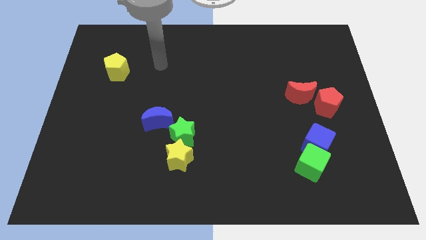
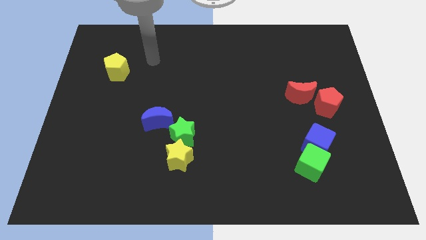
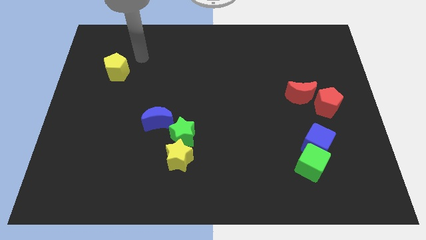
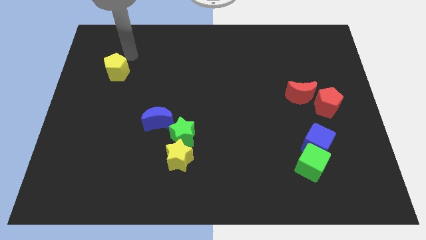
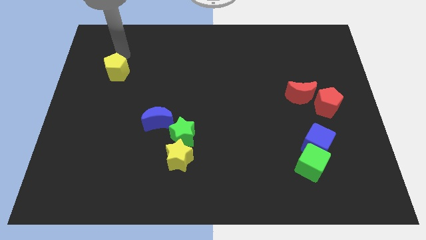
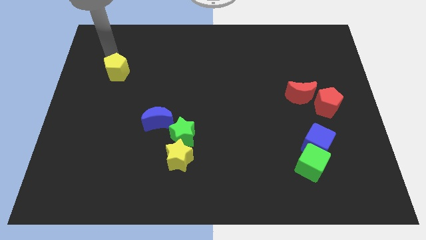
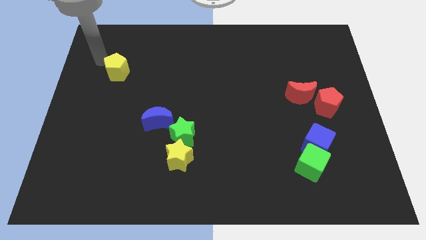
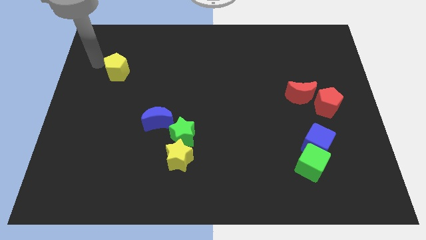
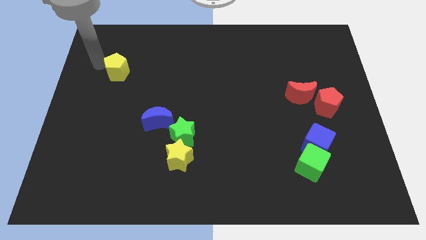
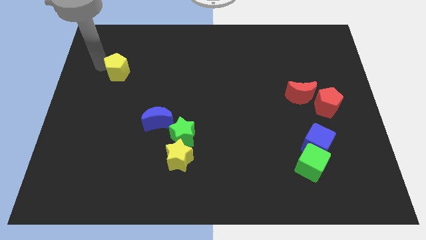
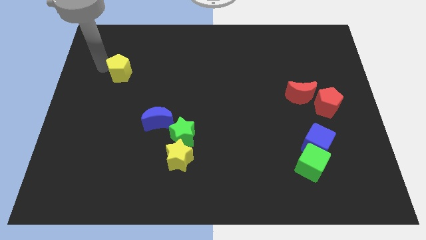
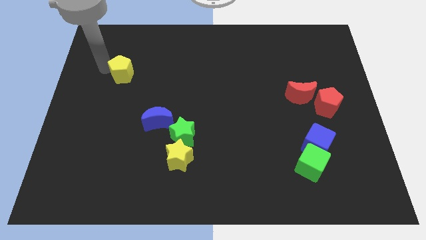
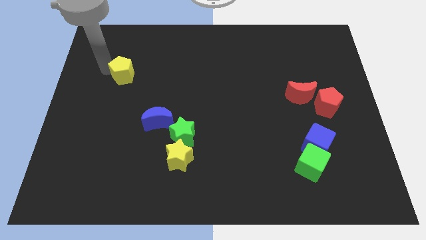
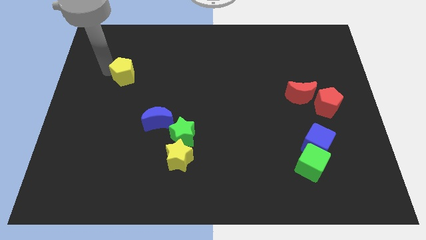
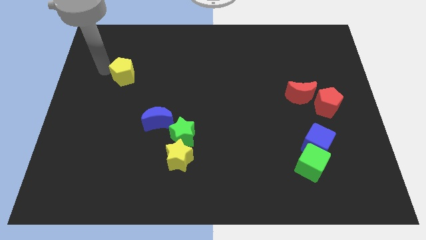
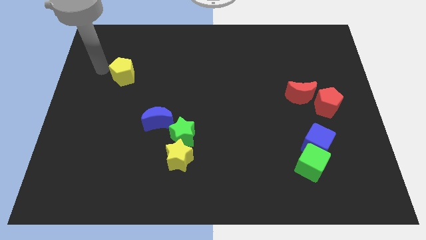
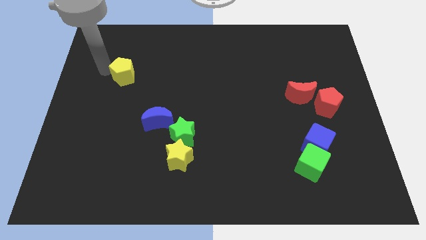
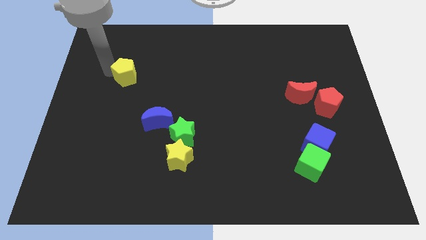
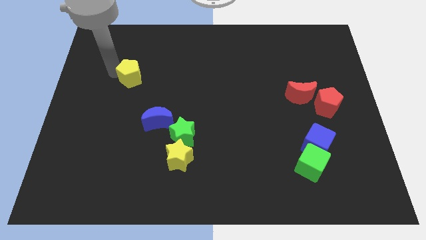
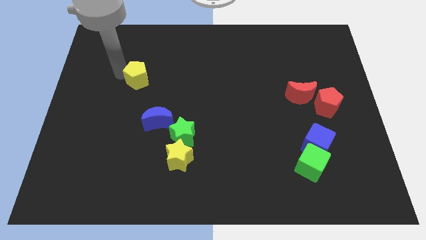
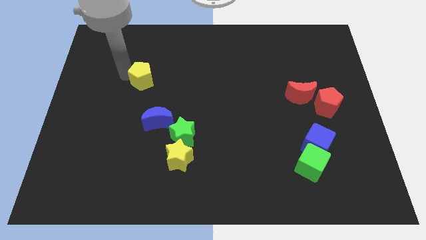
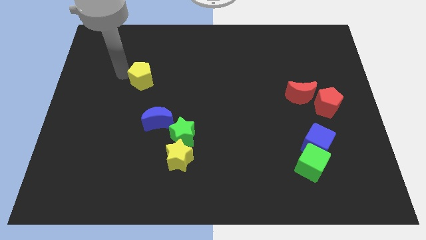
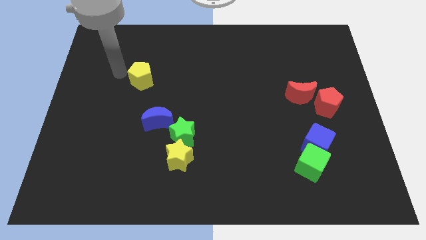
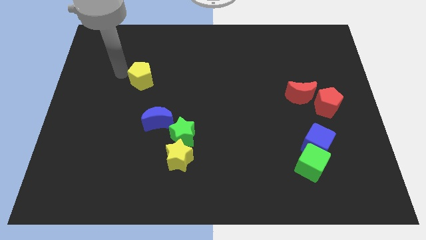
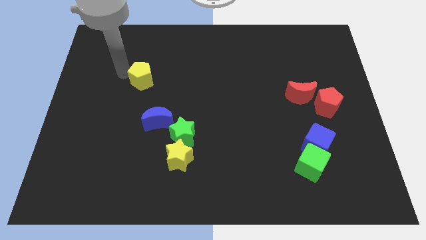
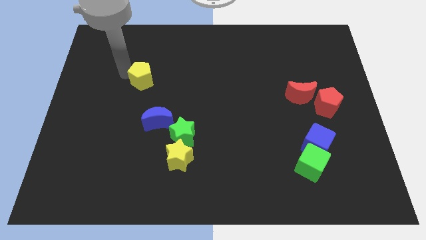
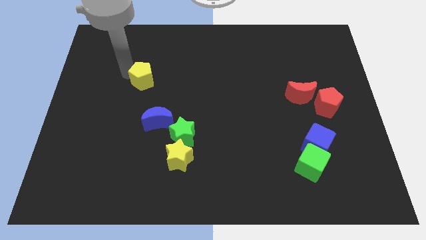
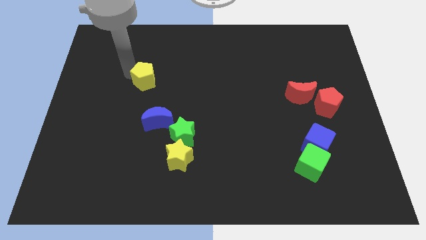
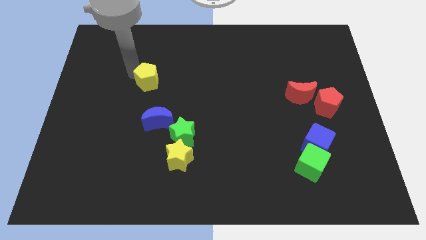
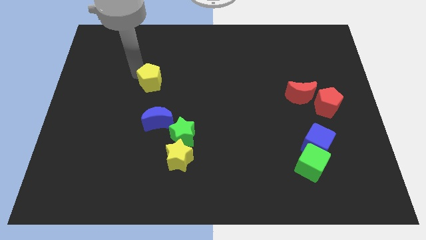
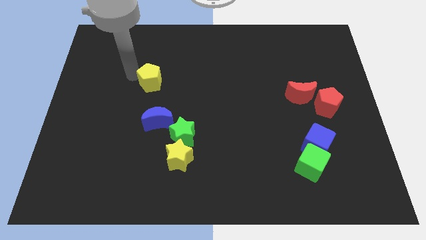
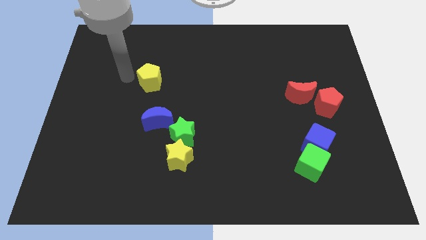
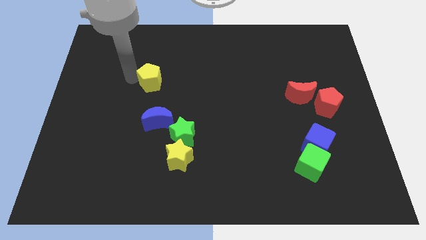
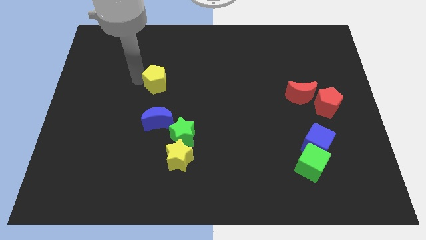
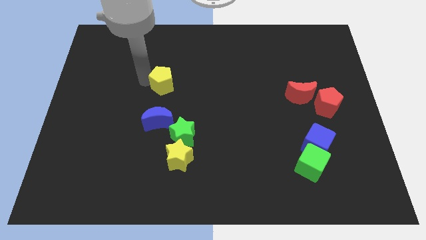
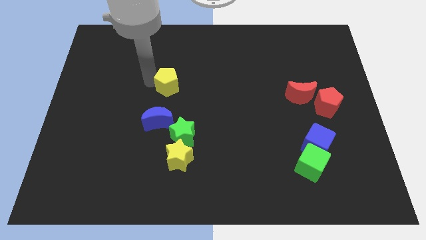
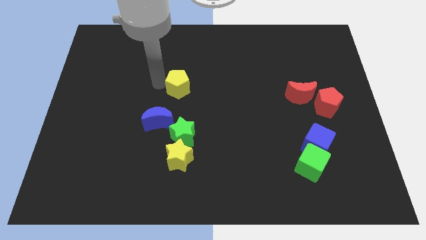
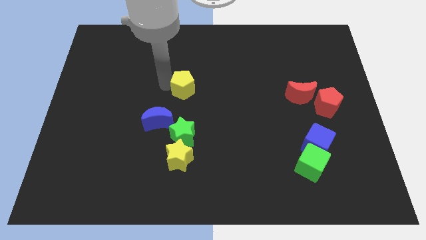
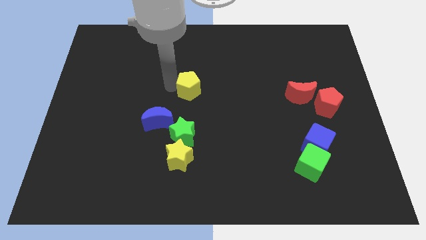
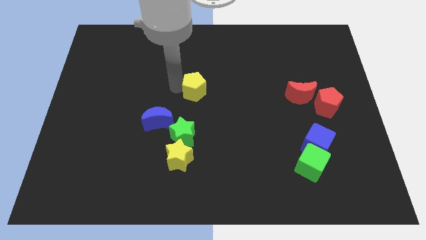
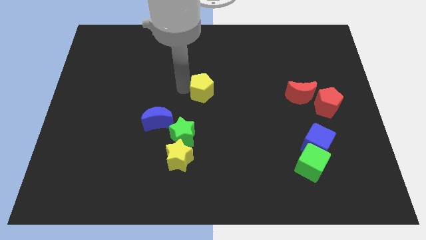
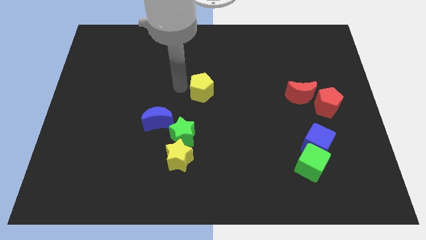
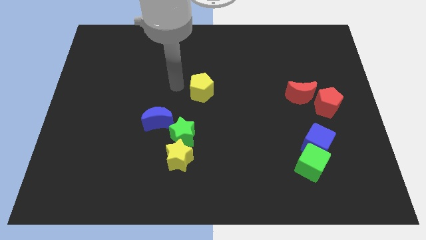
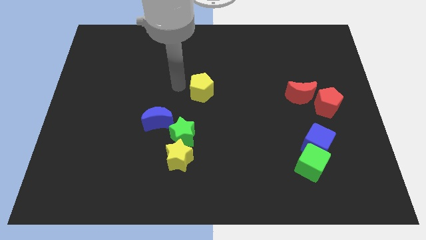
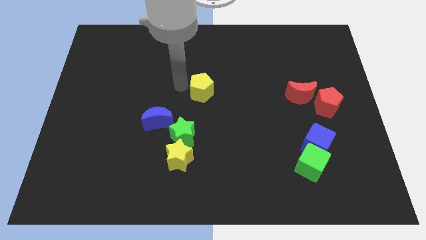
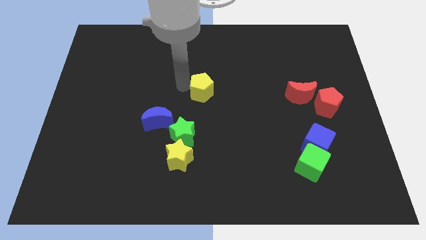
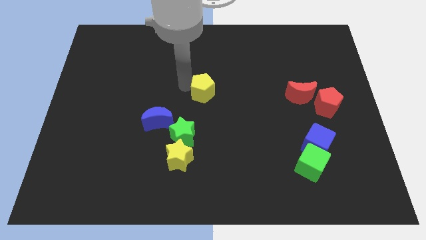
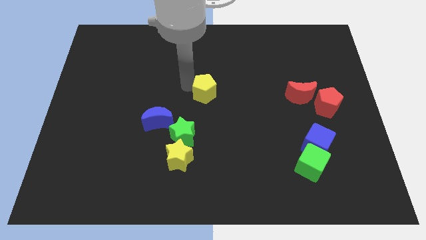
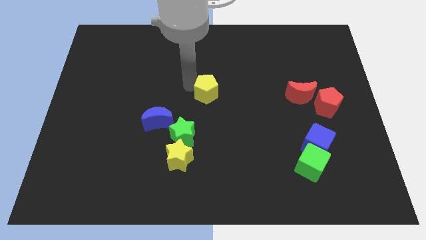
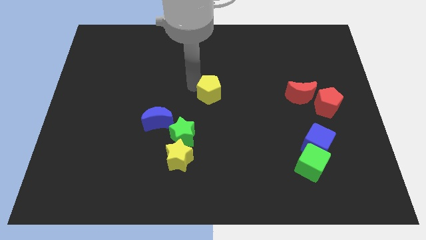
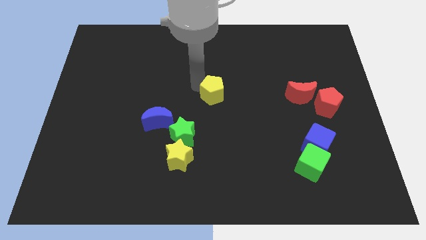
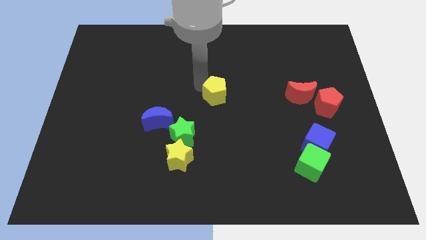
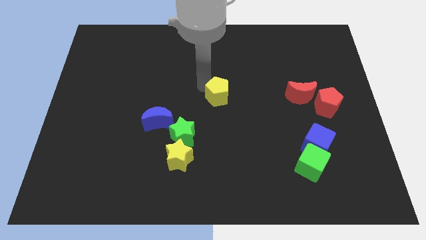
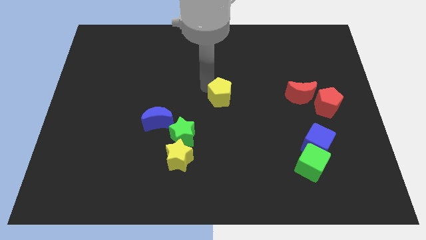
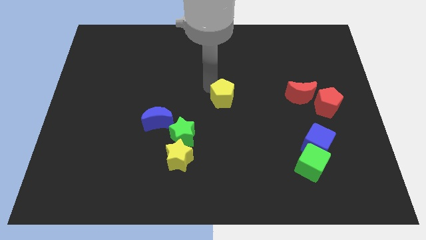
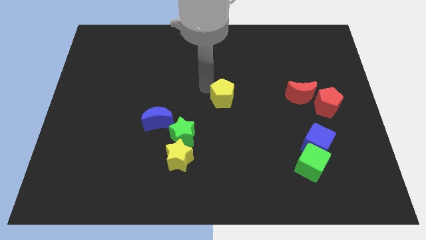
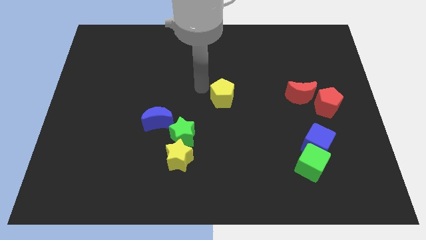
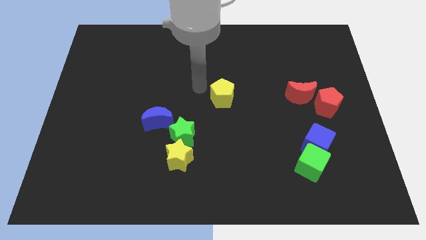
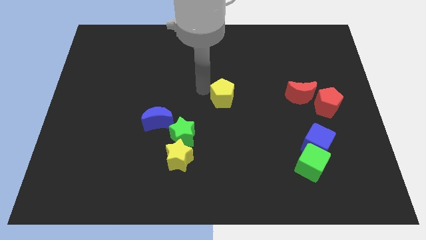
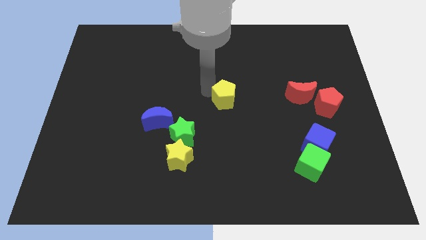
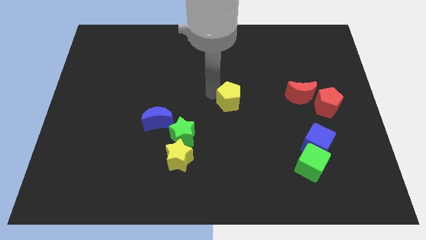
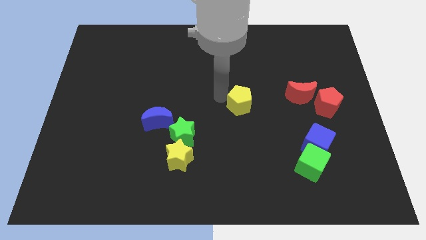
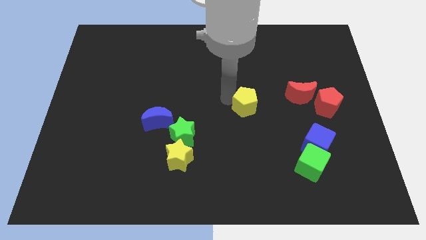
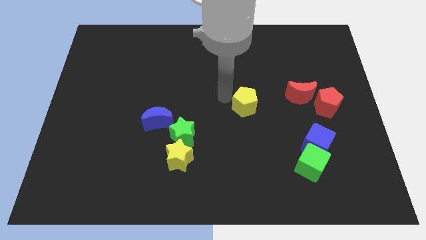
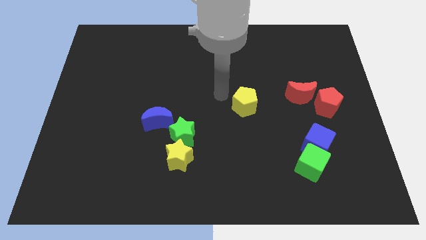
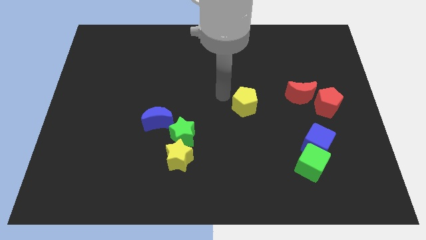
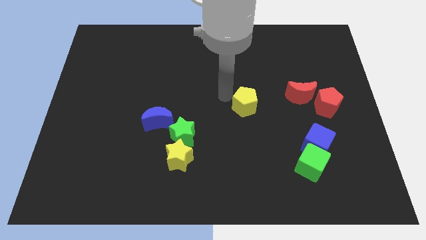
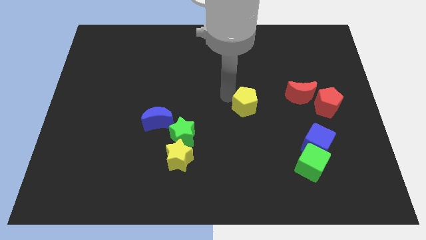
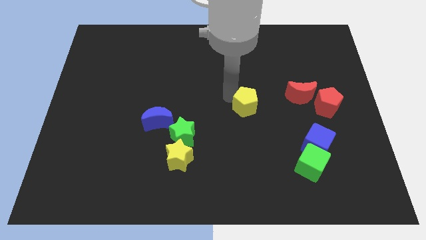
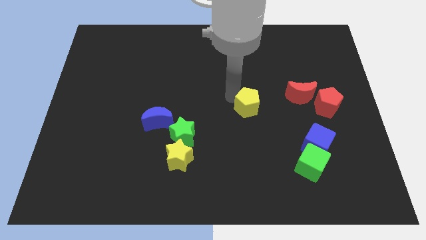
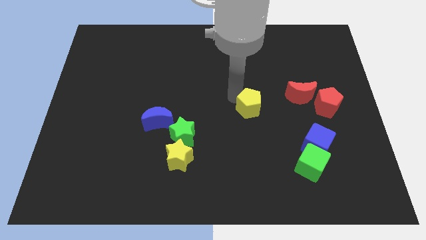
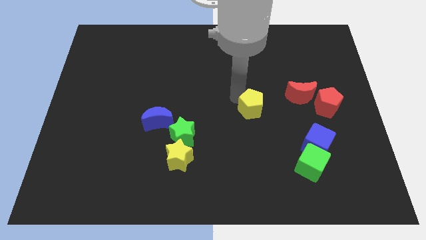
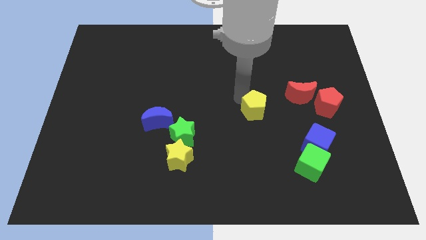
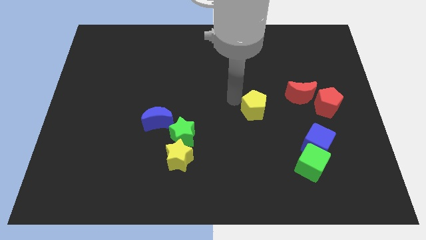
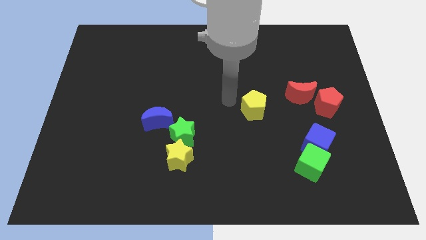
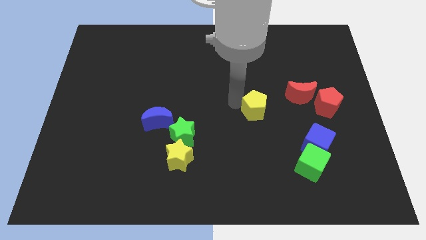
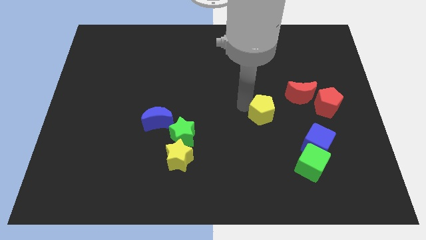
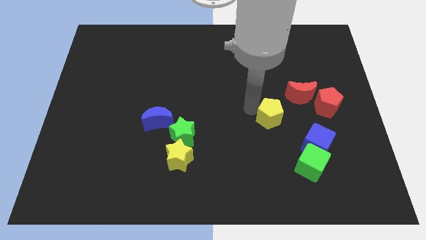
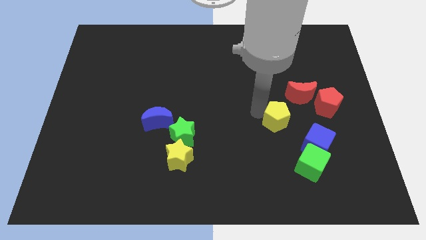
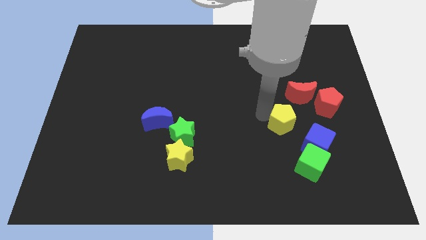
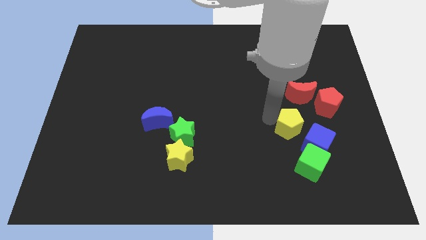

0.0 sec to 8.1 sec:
move the yellow pentagon diagonally down and to the left of the red pentagon

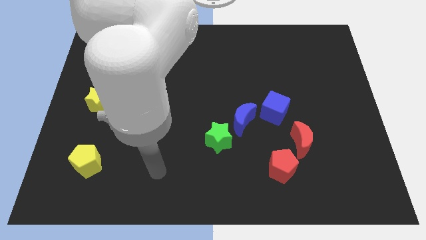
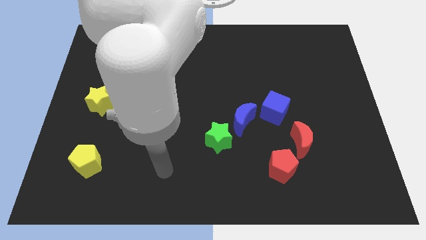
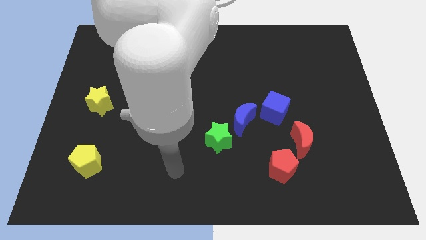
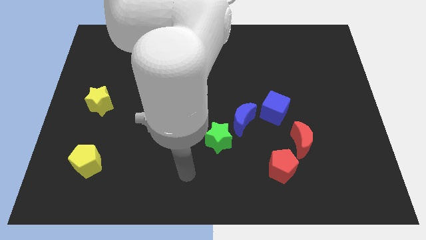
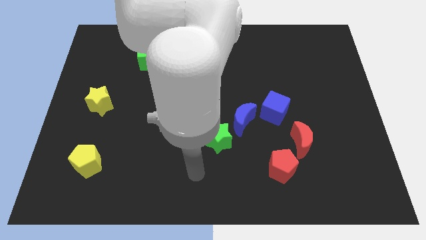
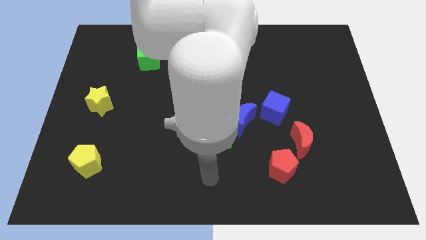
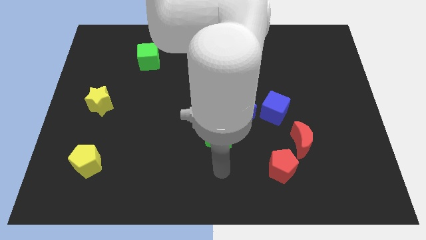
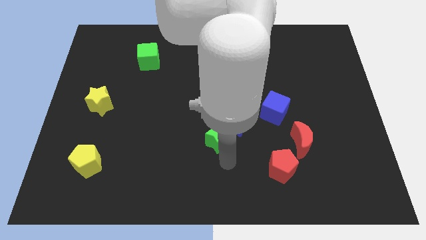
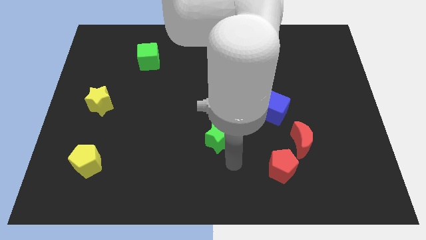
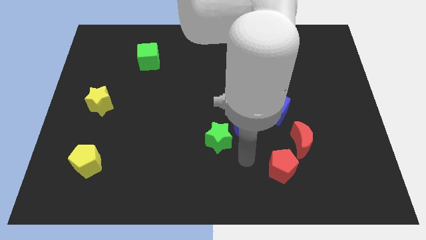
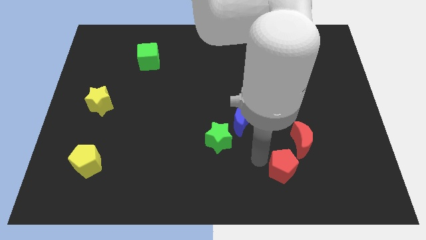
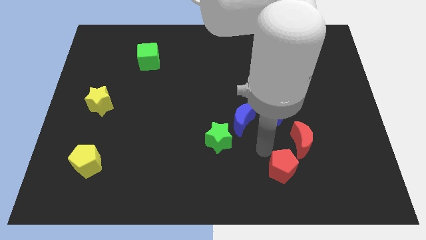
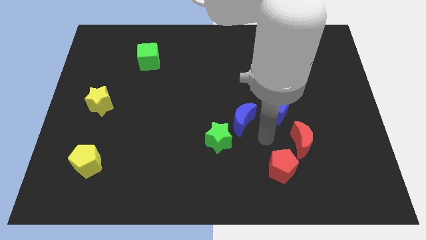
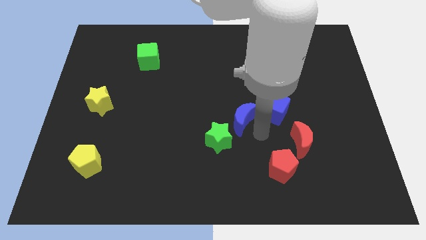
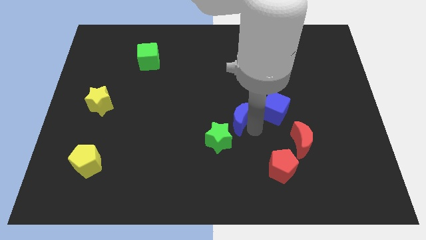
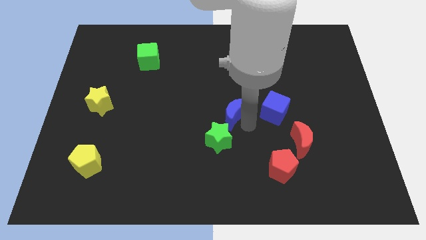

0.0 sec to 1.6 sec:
move the blue moon to the top of the green star
